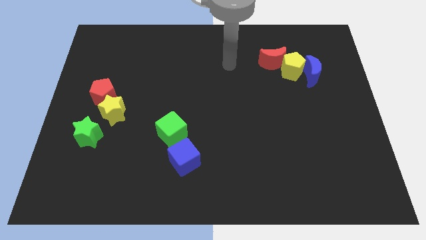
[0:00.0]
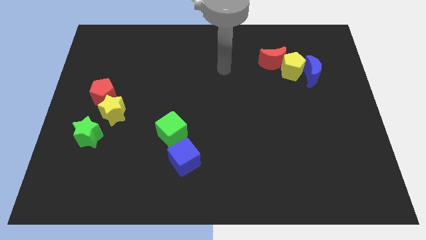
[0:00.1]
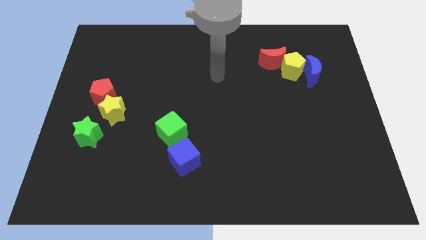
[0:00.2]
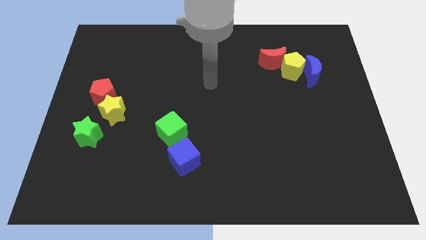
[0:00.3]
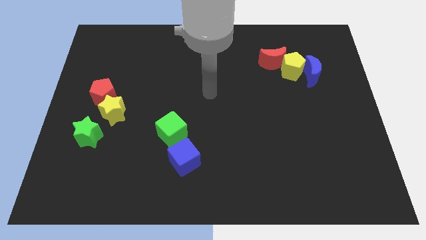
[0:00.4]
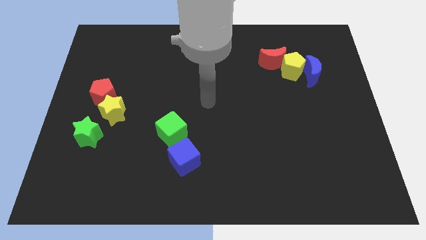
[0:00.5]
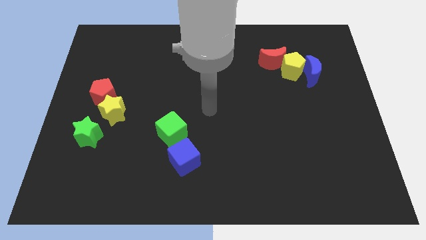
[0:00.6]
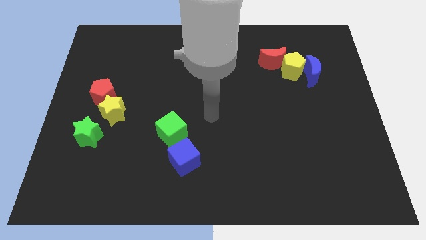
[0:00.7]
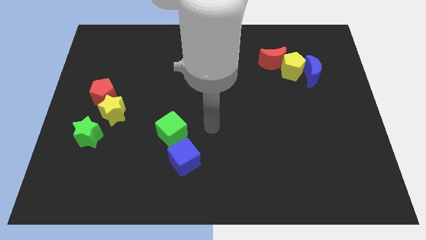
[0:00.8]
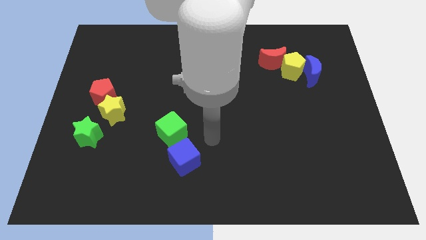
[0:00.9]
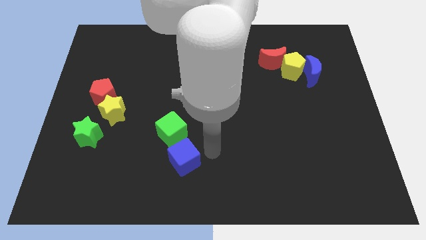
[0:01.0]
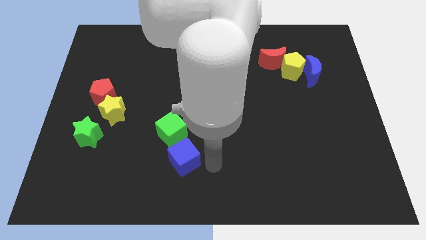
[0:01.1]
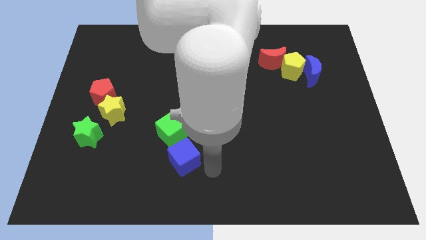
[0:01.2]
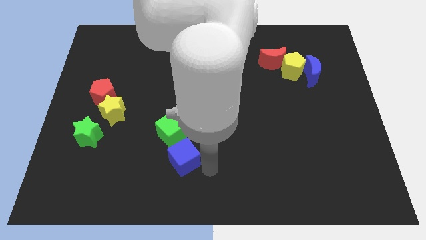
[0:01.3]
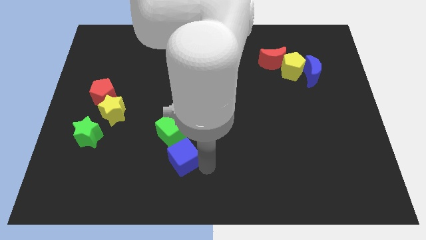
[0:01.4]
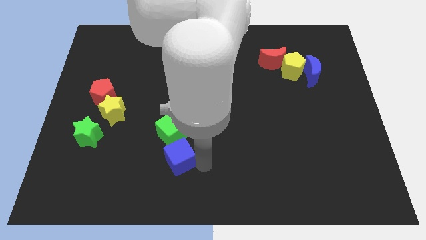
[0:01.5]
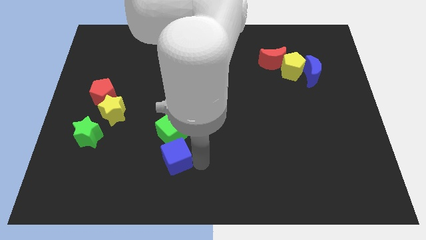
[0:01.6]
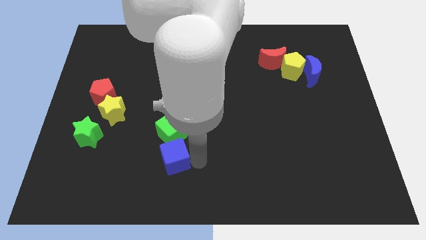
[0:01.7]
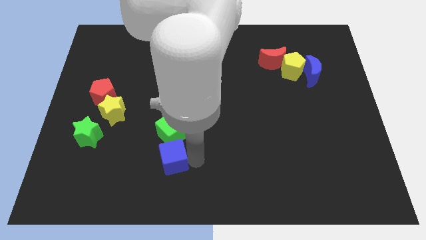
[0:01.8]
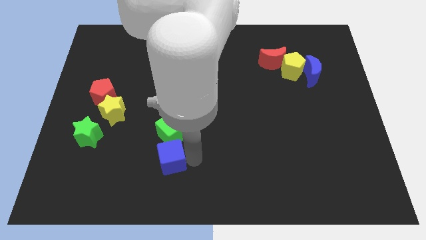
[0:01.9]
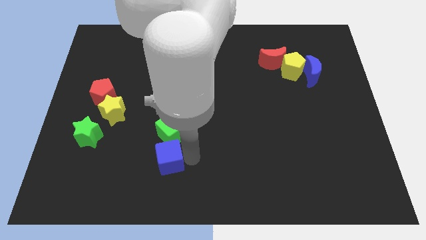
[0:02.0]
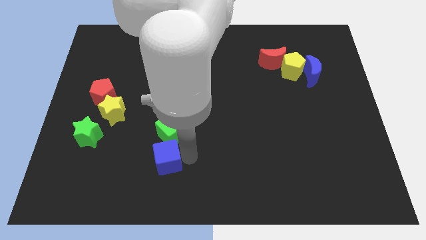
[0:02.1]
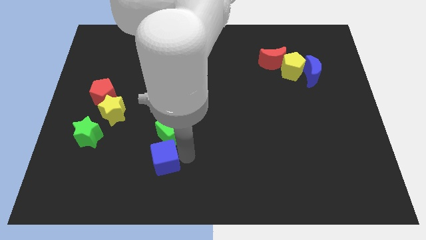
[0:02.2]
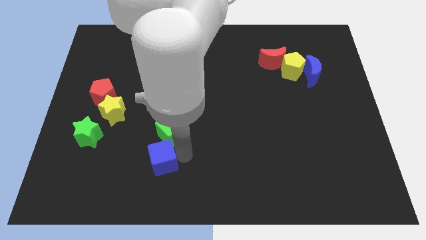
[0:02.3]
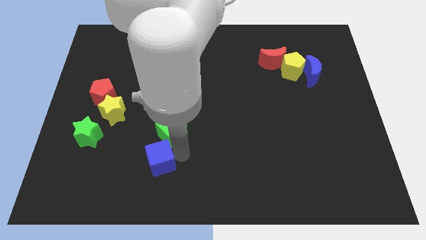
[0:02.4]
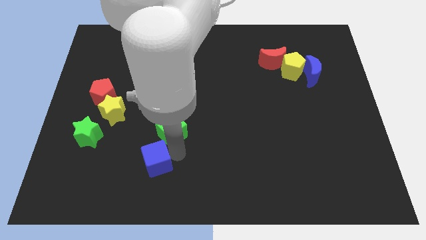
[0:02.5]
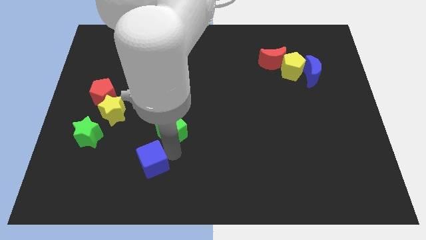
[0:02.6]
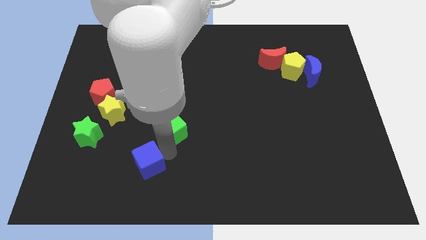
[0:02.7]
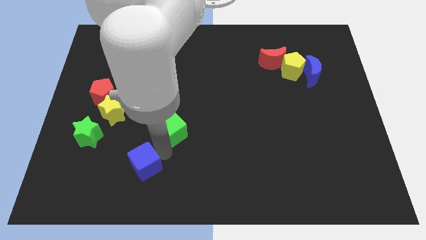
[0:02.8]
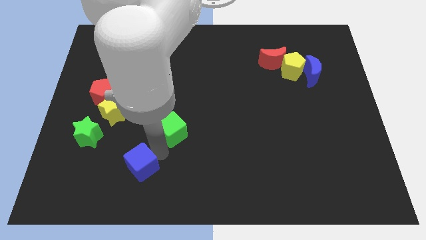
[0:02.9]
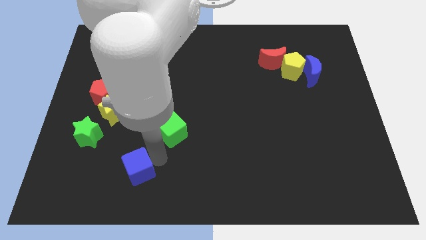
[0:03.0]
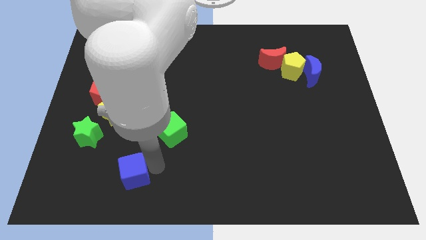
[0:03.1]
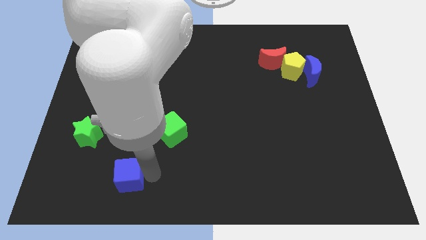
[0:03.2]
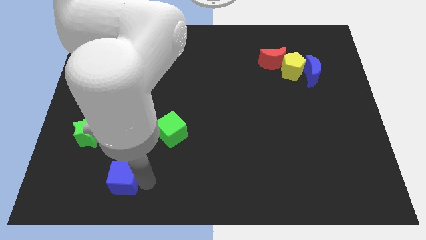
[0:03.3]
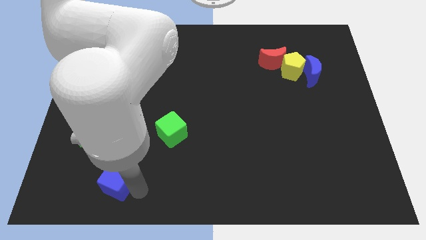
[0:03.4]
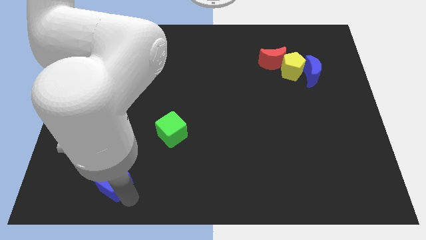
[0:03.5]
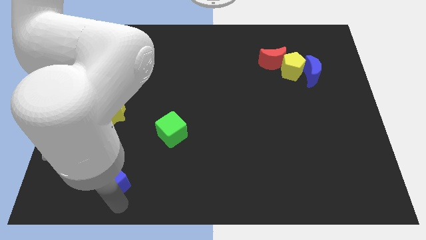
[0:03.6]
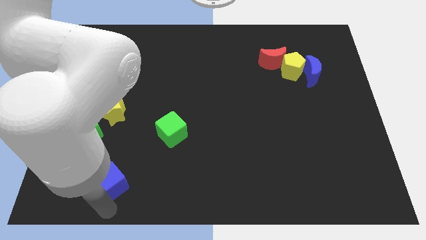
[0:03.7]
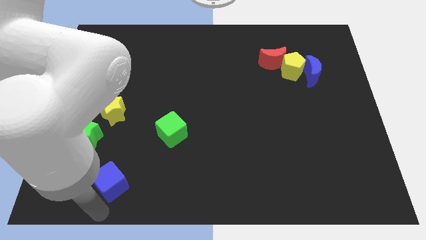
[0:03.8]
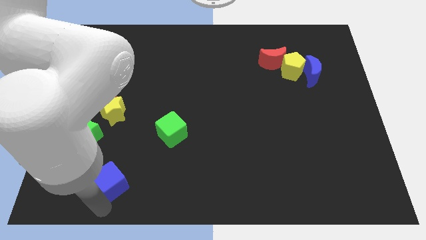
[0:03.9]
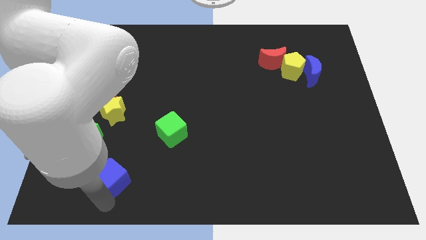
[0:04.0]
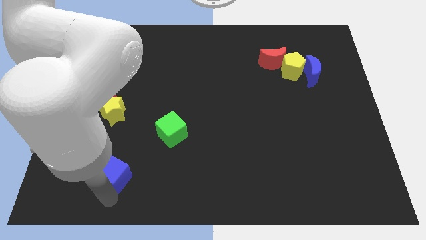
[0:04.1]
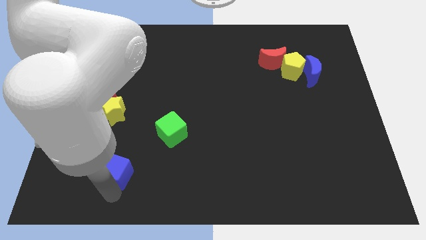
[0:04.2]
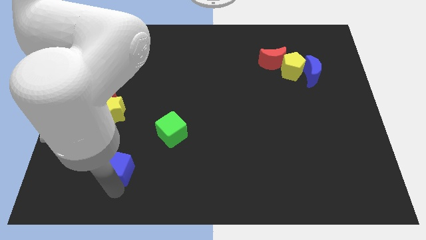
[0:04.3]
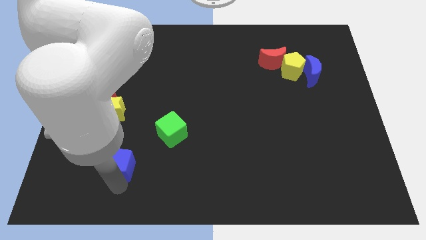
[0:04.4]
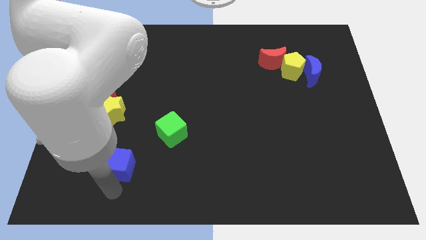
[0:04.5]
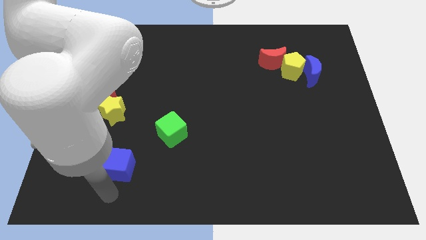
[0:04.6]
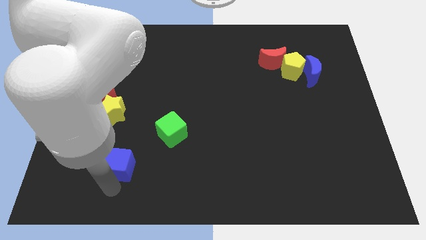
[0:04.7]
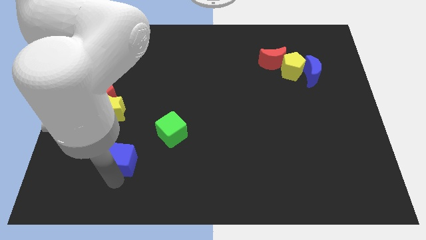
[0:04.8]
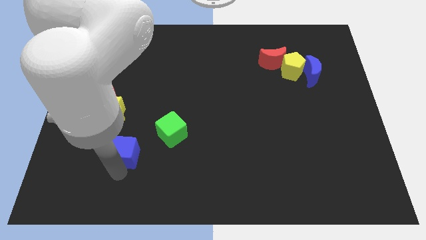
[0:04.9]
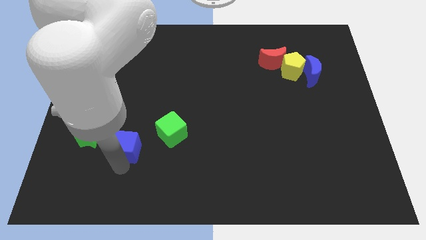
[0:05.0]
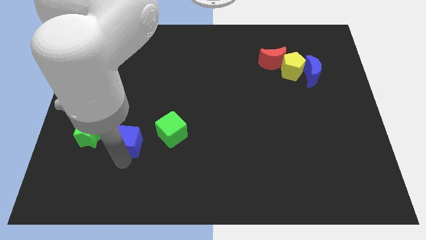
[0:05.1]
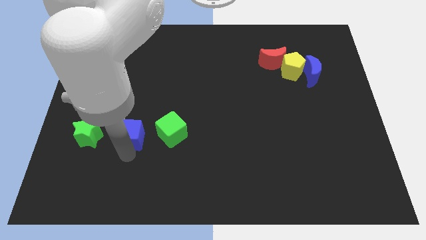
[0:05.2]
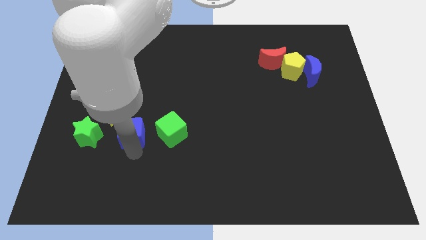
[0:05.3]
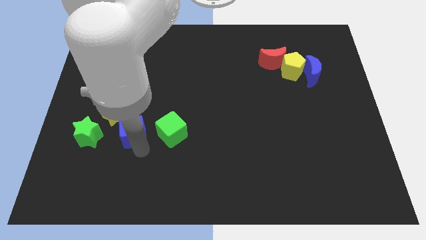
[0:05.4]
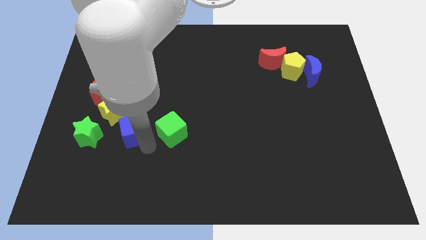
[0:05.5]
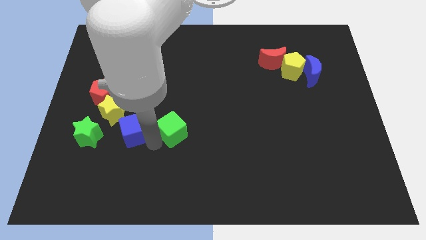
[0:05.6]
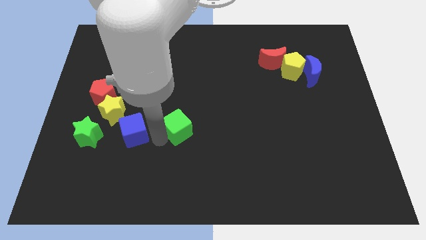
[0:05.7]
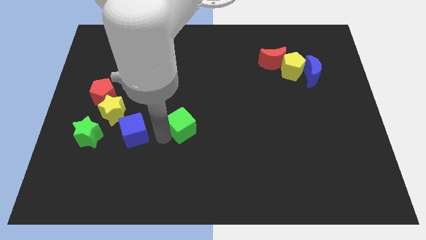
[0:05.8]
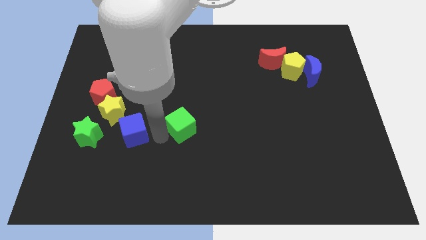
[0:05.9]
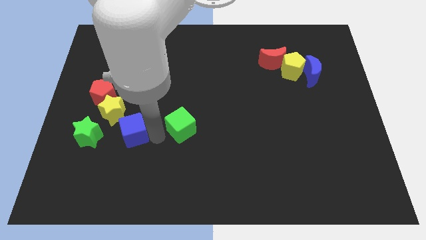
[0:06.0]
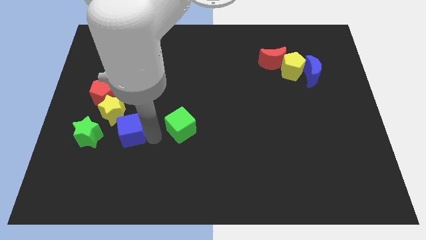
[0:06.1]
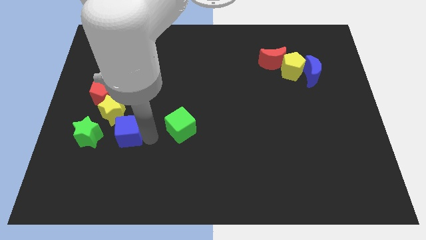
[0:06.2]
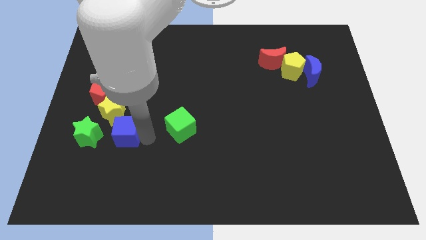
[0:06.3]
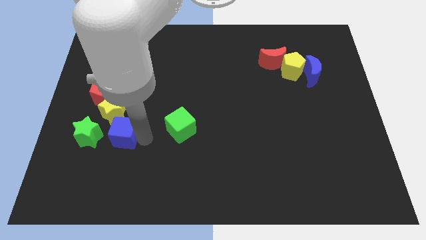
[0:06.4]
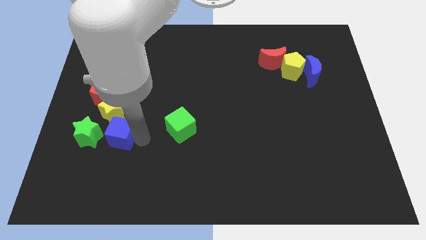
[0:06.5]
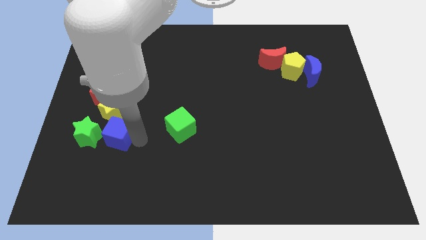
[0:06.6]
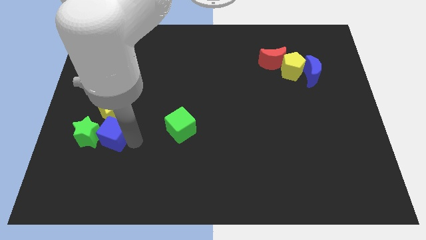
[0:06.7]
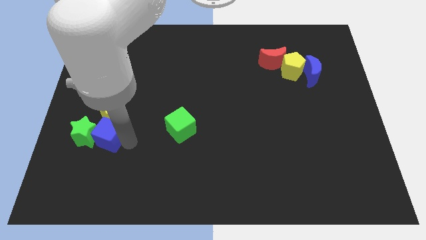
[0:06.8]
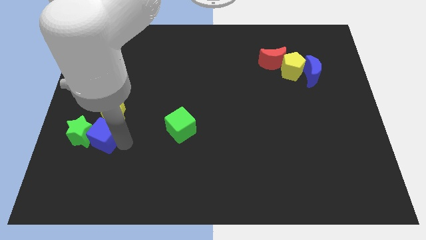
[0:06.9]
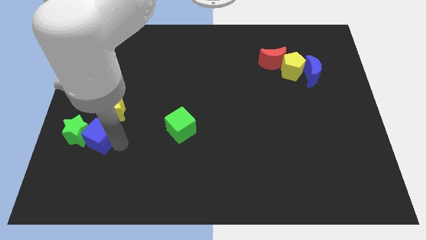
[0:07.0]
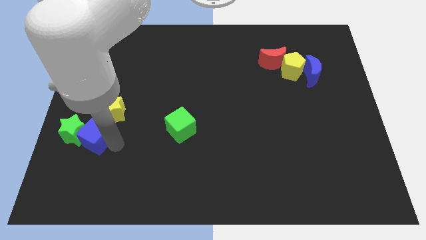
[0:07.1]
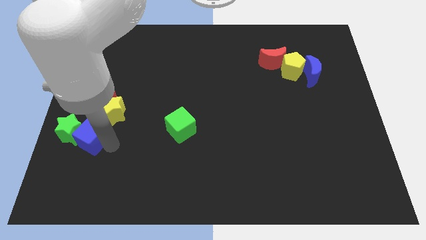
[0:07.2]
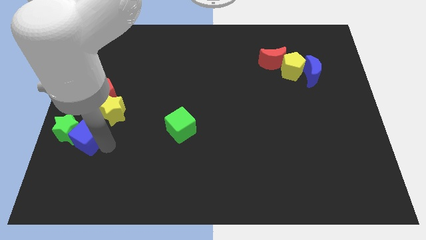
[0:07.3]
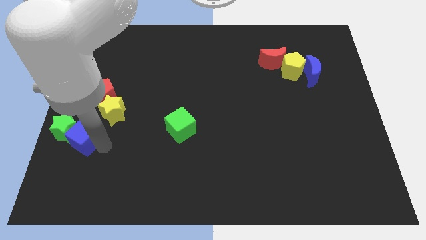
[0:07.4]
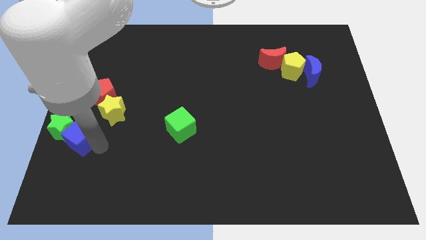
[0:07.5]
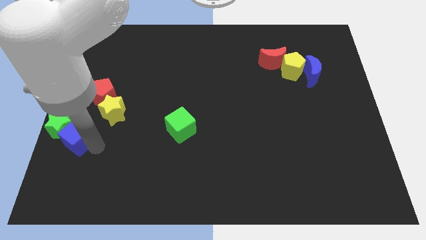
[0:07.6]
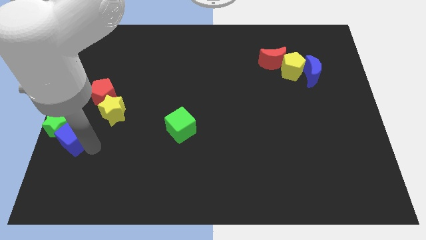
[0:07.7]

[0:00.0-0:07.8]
put the blue cube to the center left
